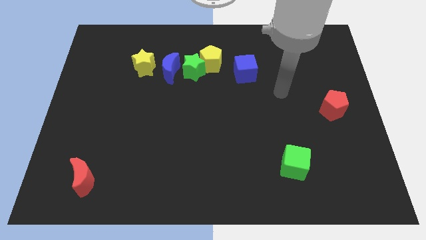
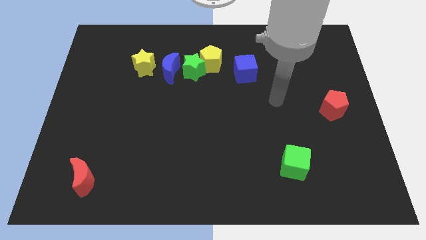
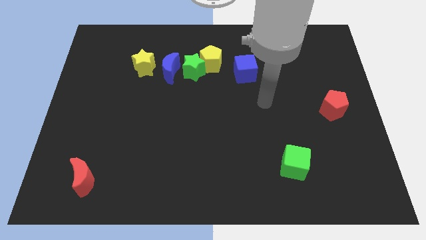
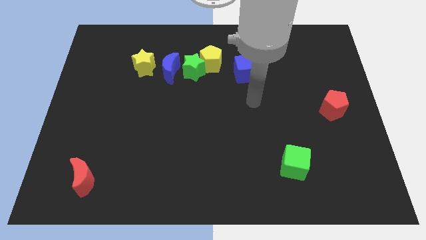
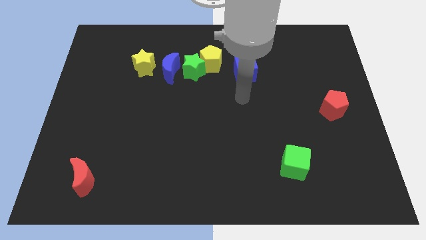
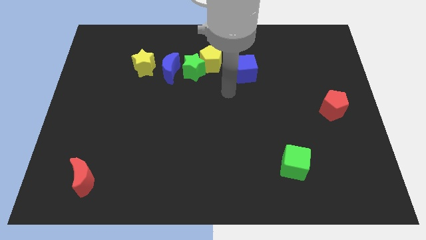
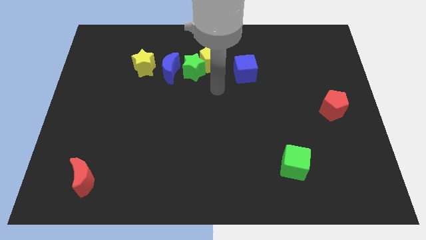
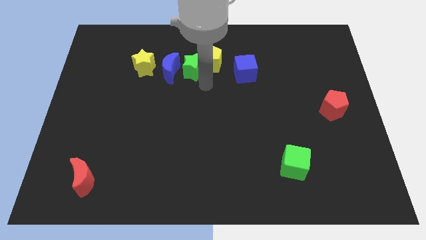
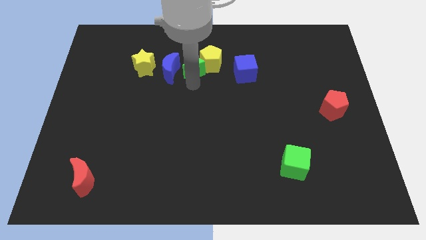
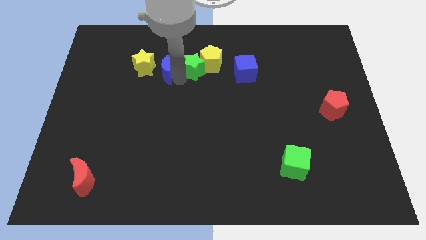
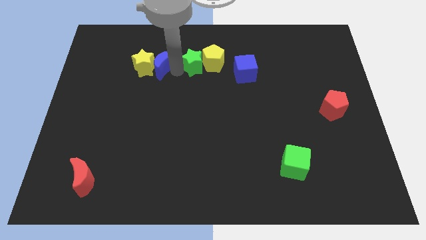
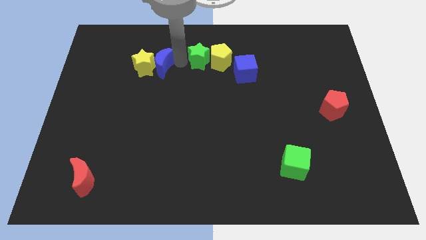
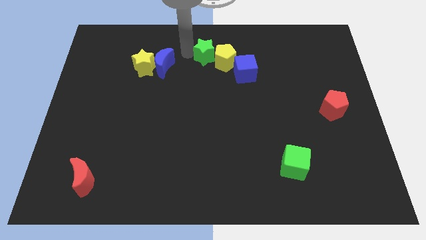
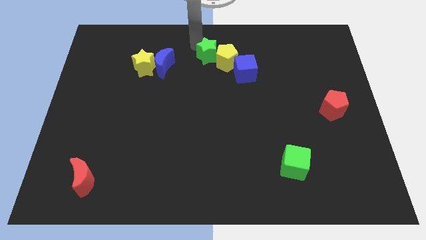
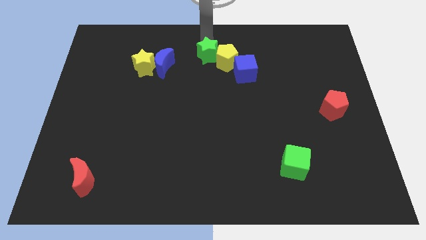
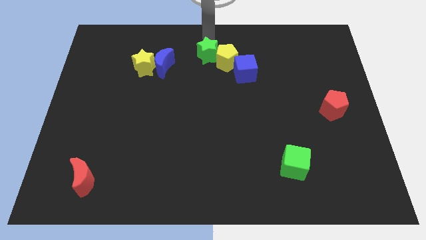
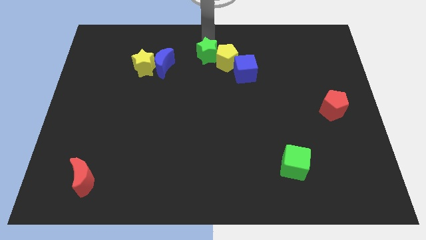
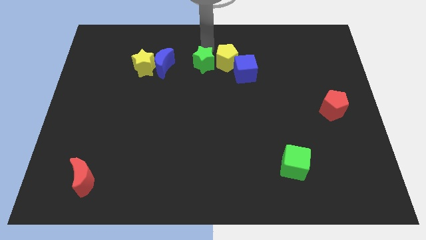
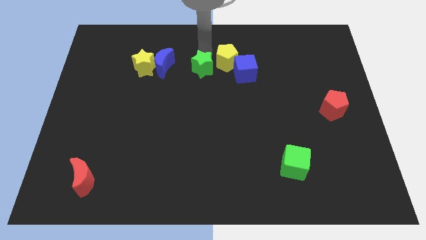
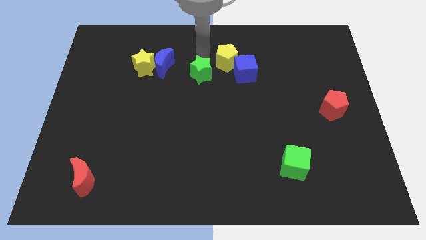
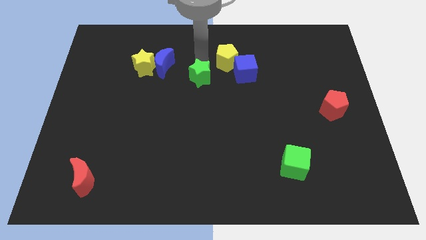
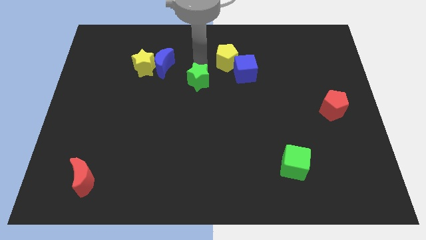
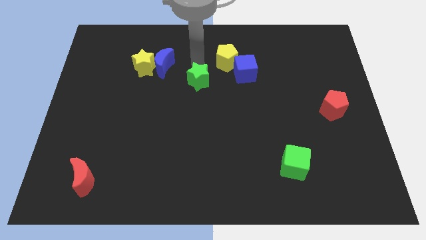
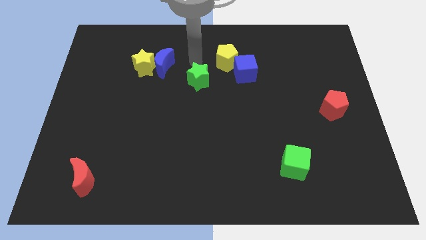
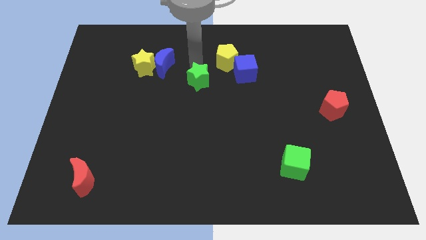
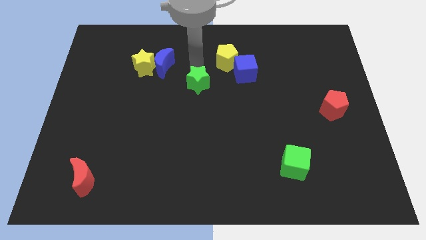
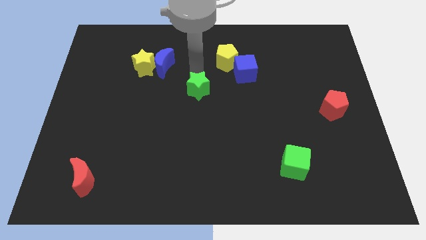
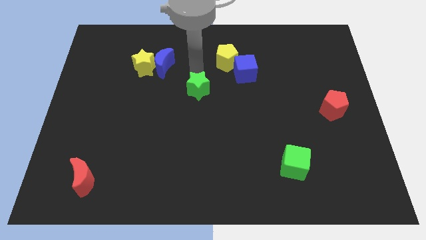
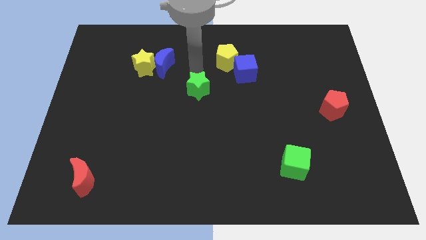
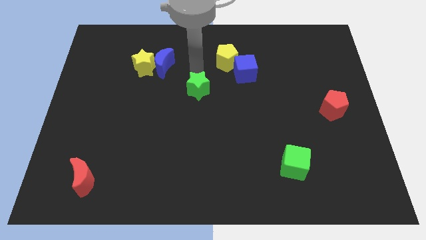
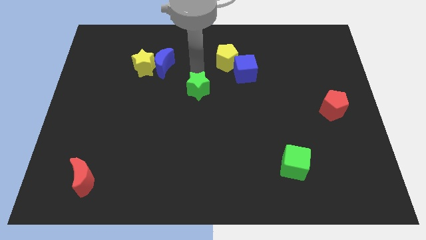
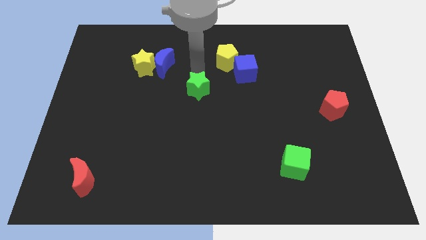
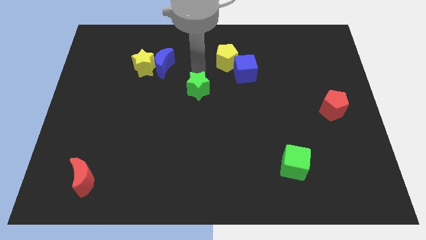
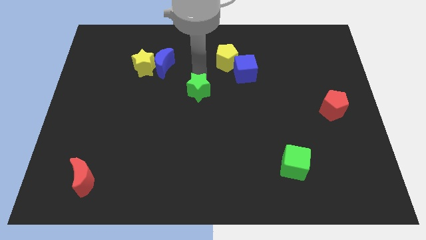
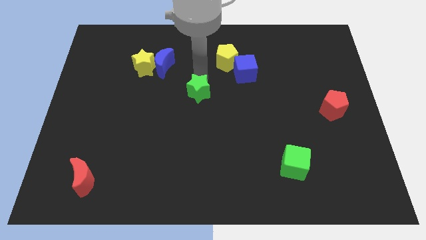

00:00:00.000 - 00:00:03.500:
separate the green star from the yellow pentagon and blue moon

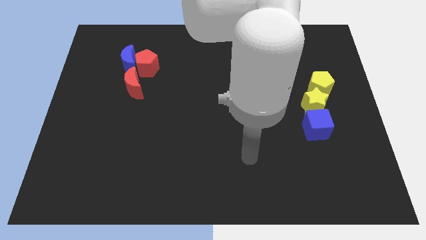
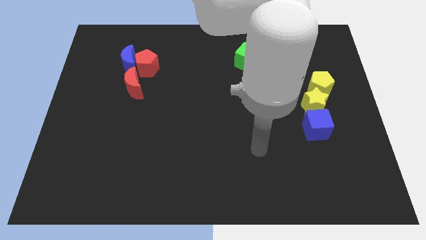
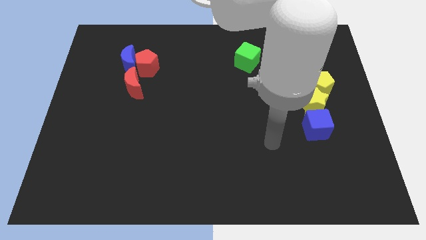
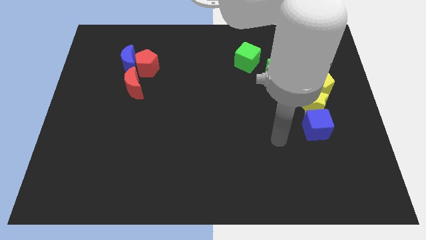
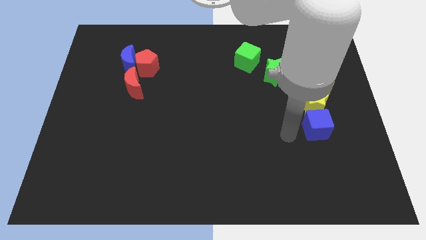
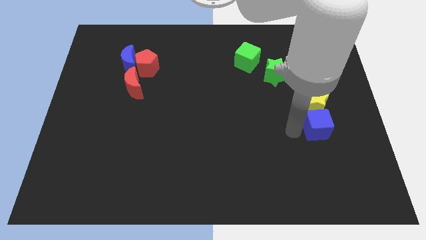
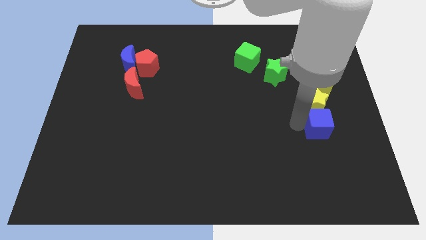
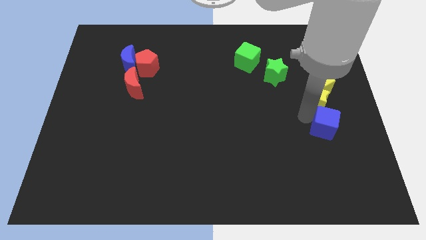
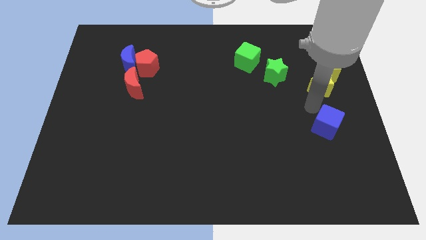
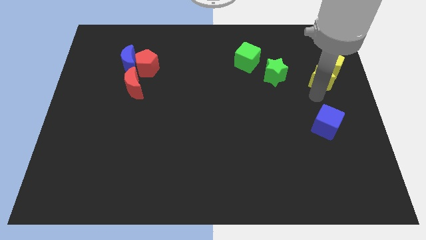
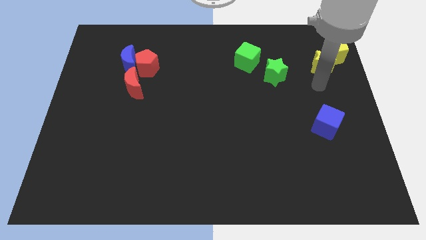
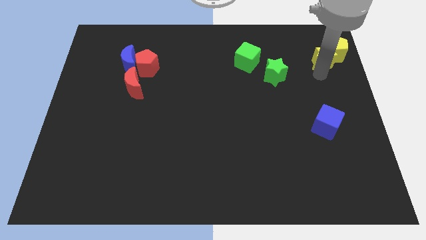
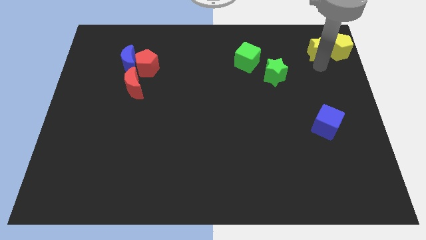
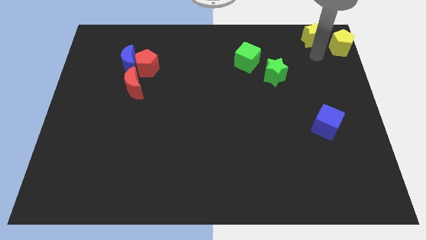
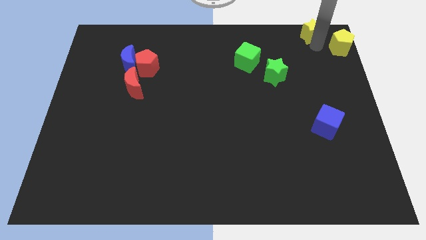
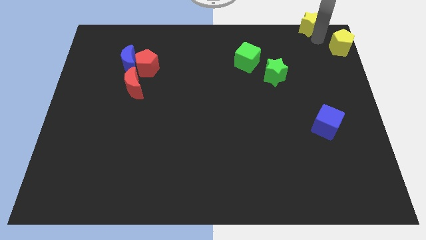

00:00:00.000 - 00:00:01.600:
pull the yellow pentagon apart from the yellow star

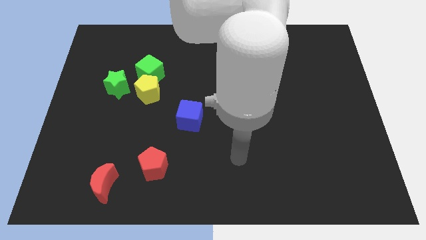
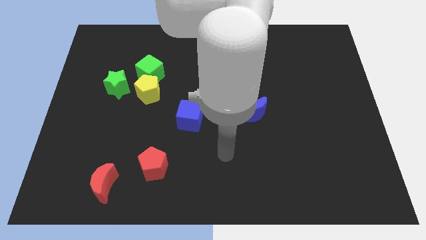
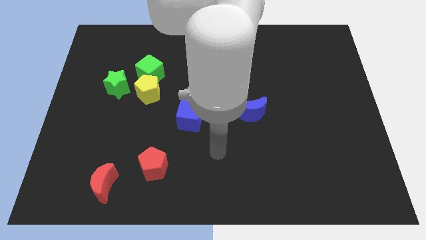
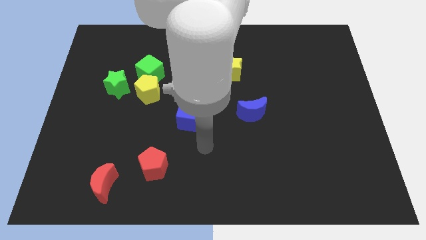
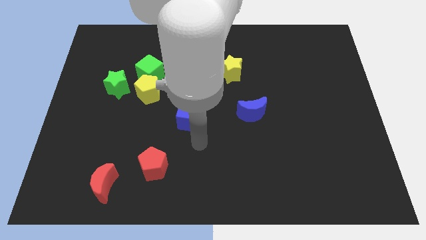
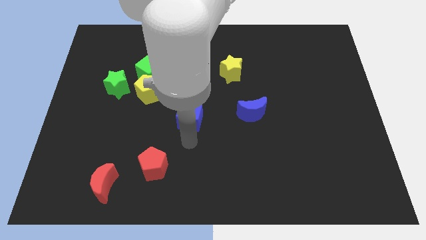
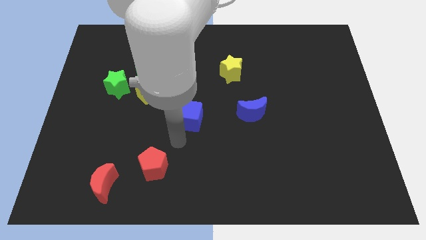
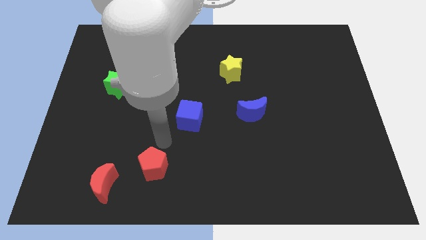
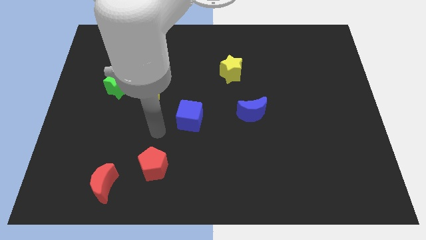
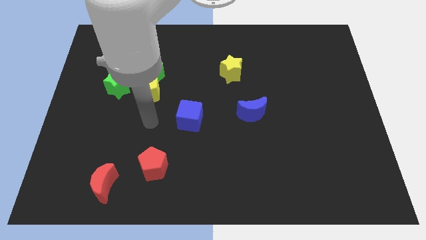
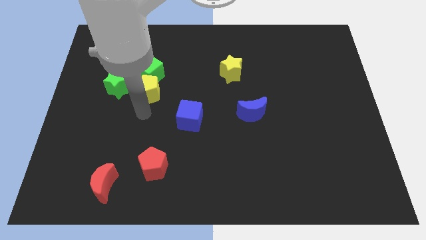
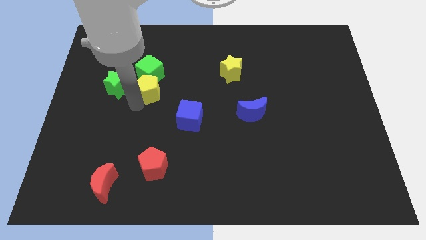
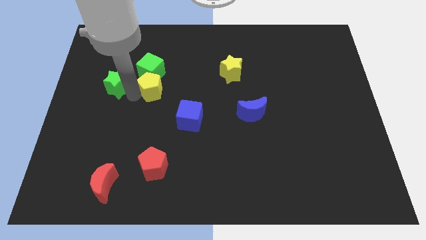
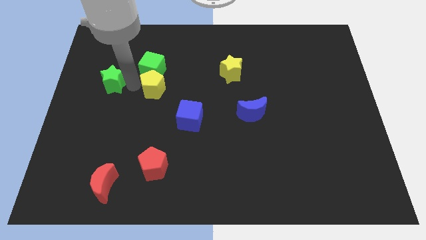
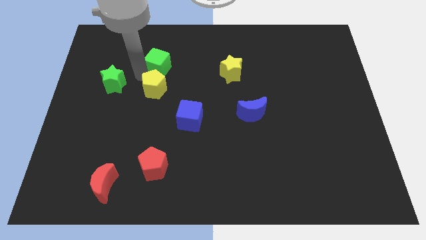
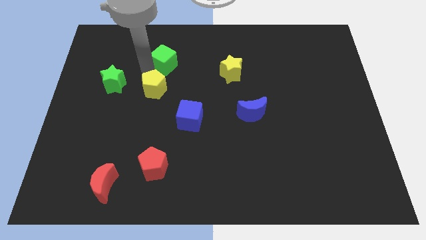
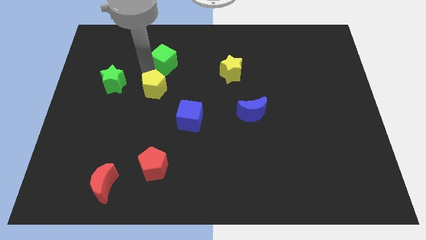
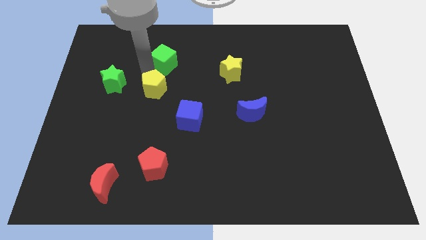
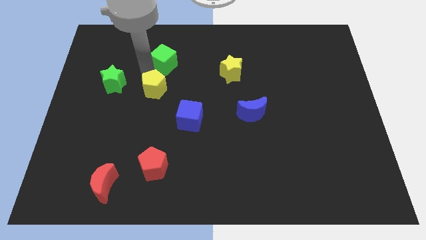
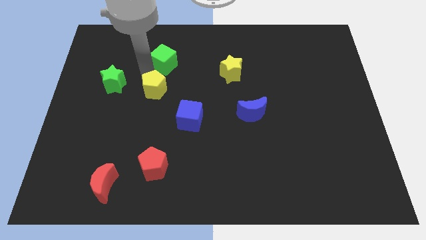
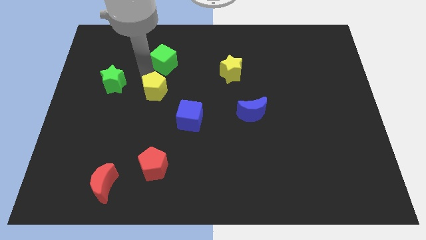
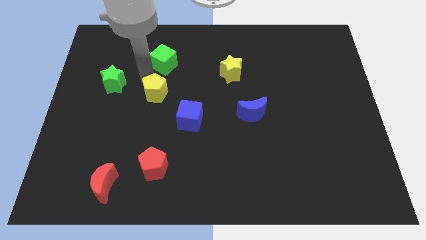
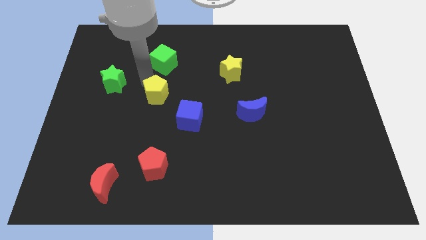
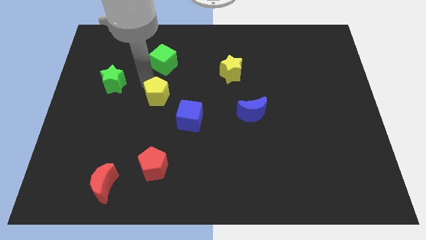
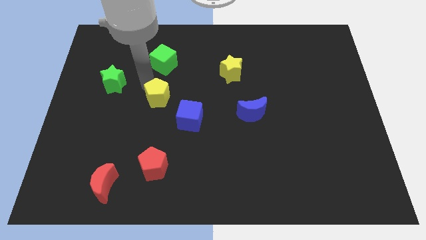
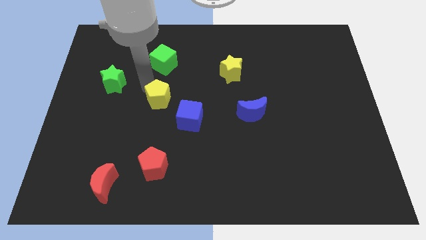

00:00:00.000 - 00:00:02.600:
pull the yellow pentagon apart from the green cube and green star

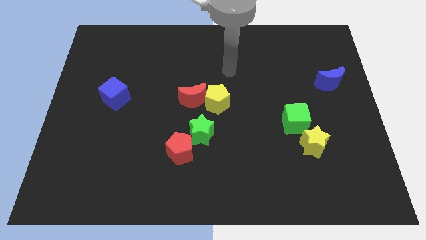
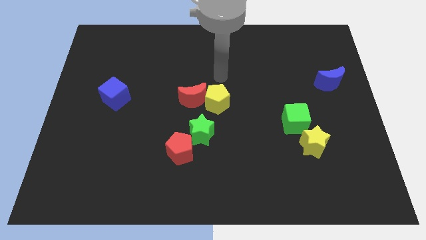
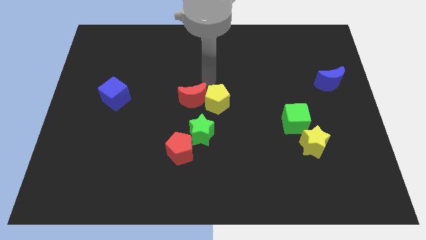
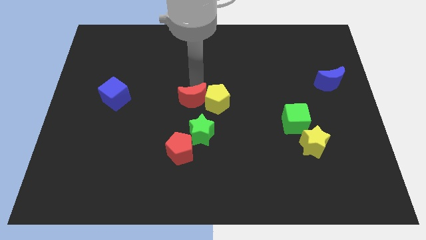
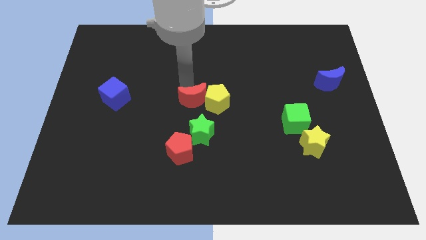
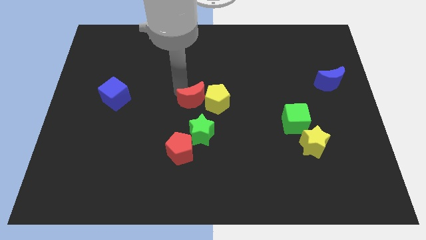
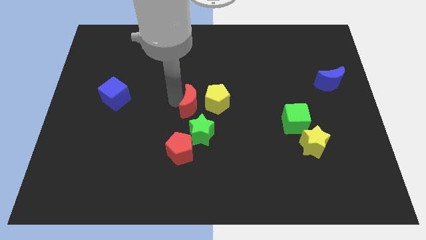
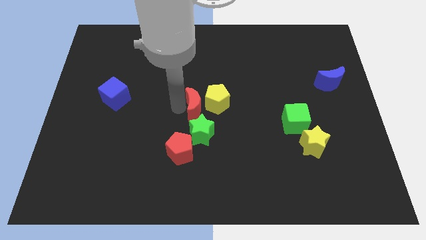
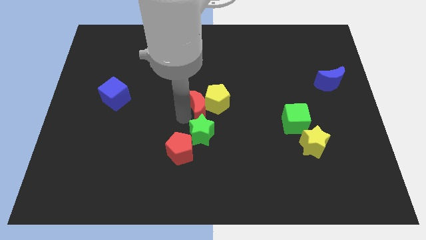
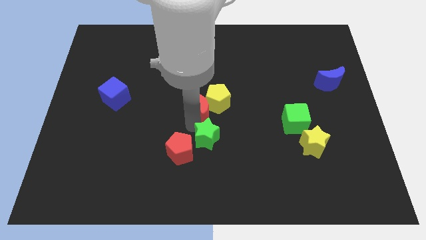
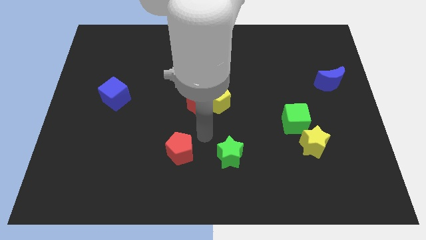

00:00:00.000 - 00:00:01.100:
pull the red pentagon apart from the green star

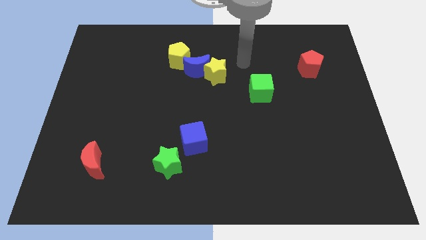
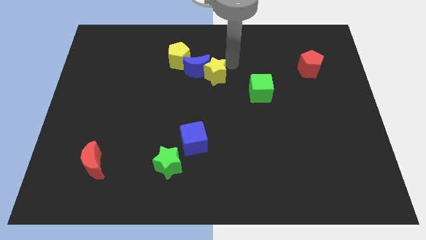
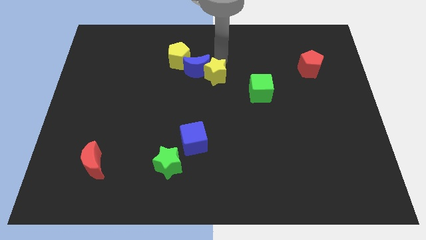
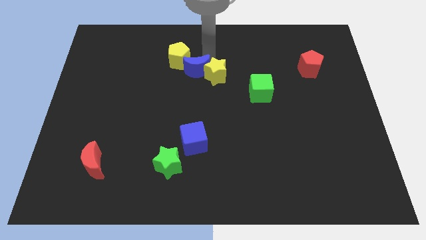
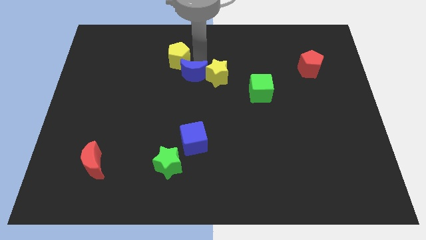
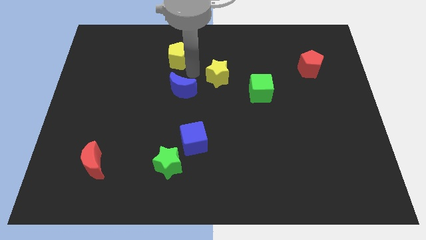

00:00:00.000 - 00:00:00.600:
separate the yellow star from the blue moon
